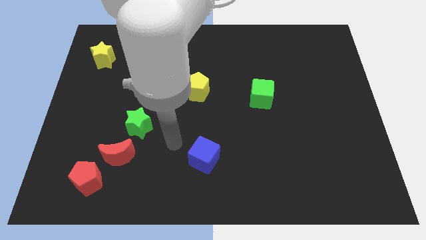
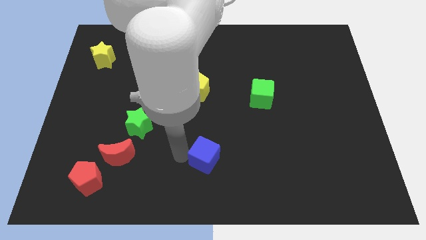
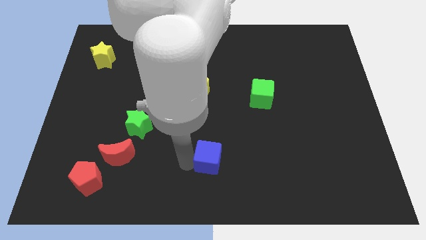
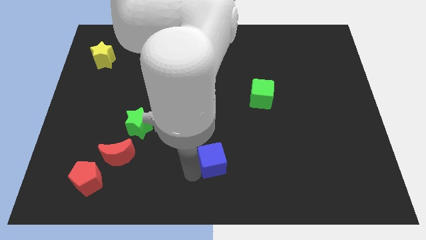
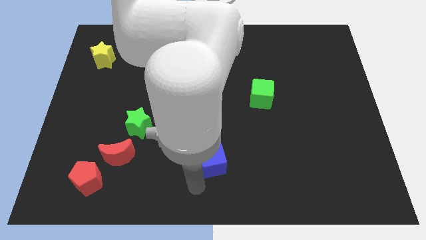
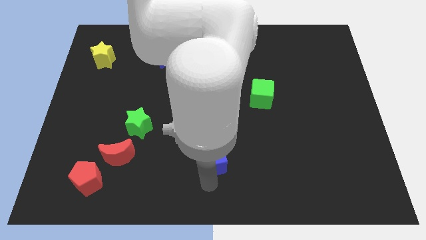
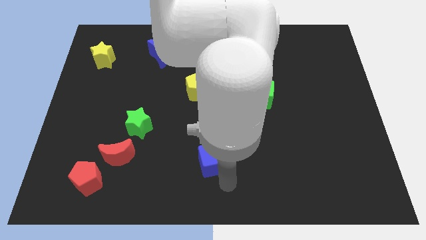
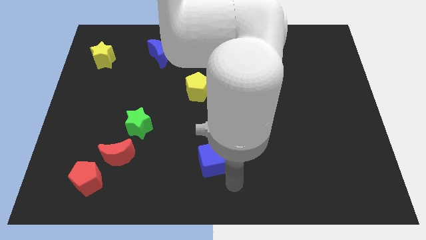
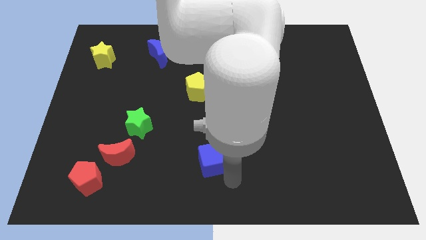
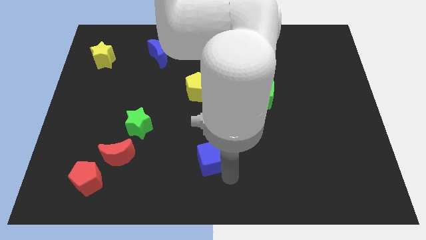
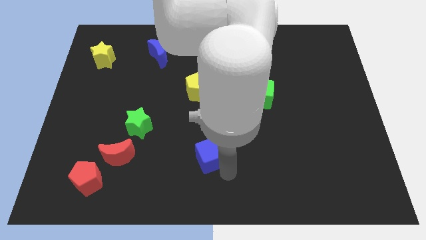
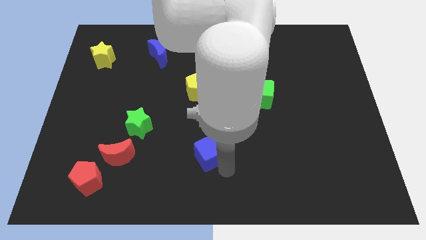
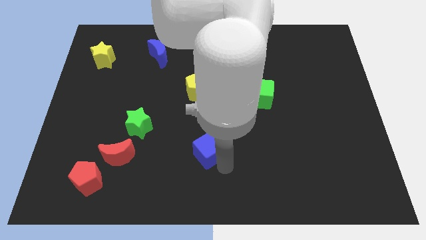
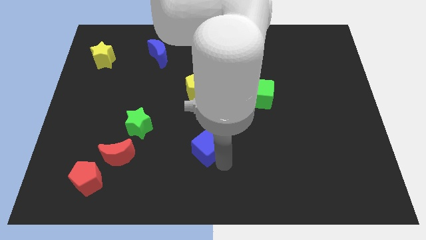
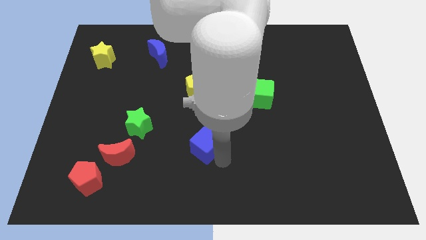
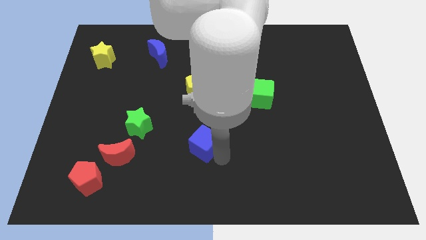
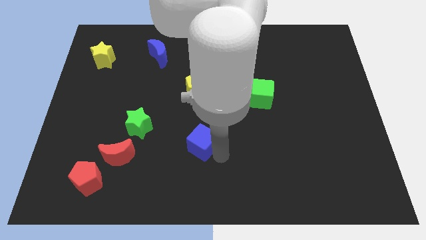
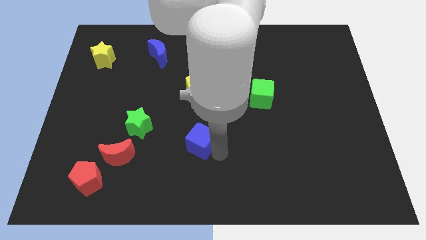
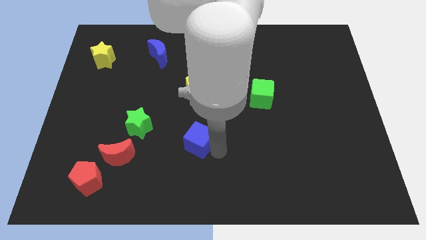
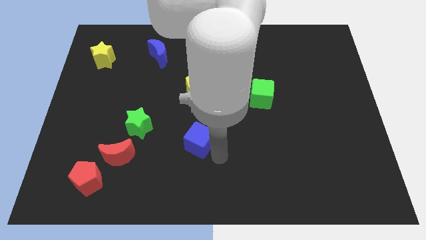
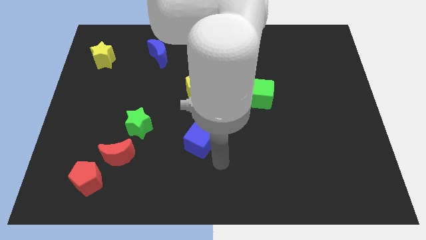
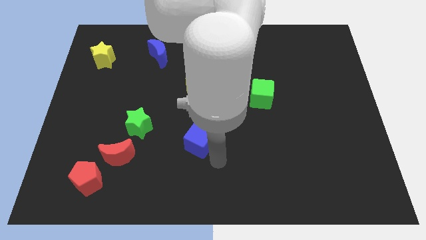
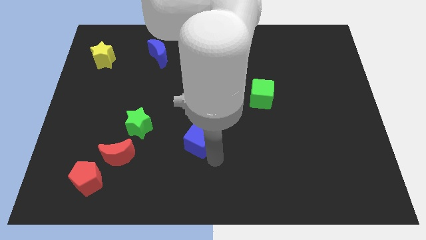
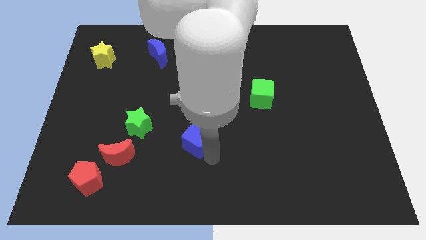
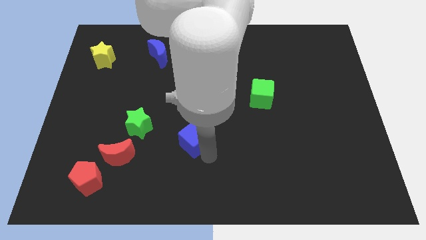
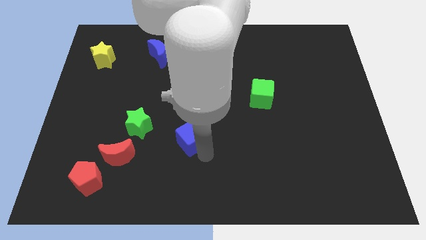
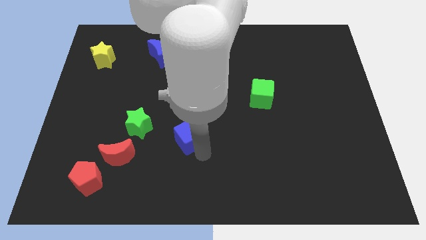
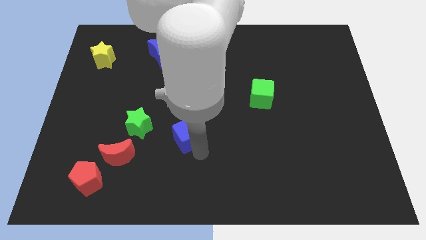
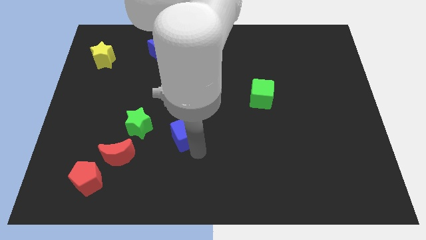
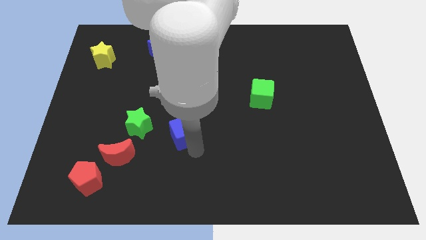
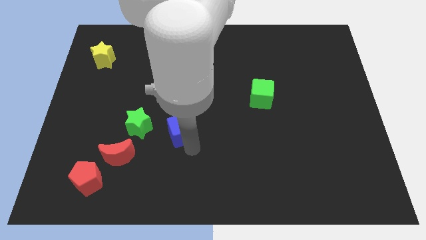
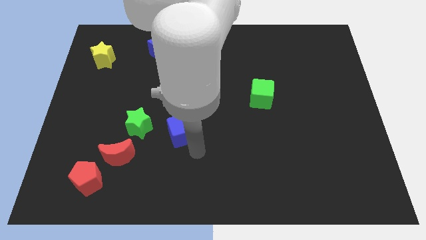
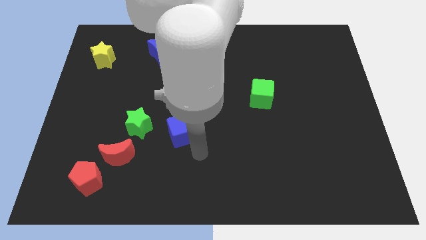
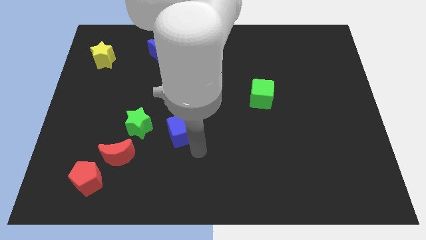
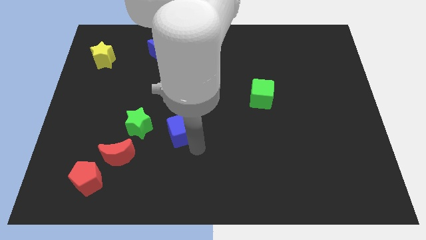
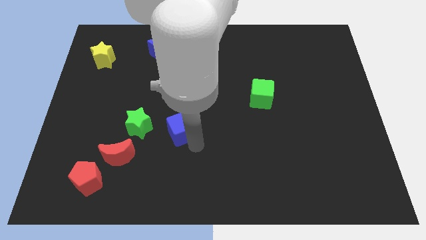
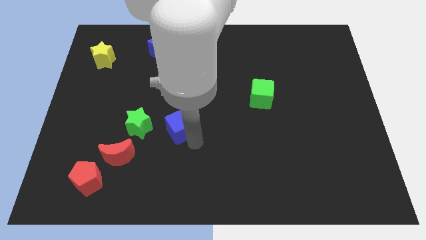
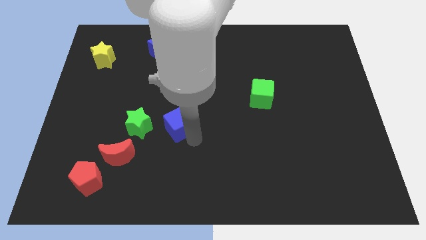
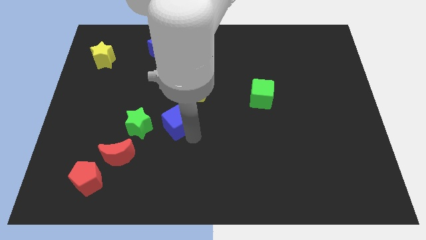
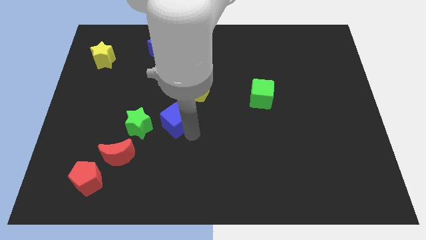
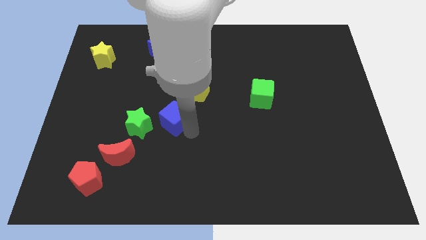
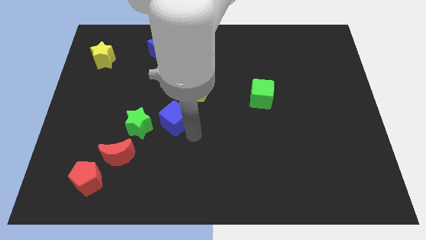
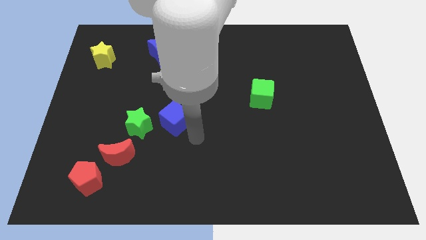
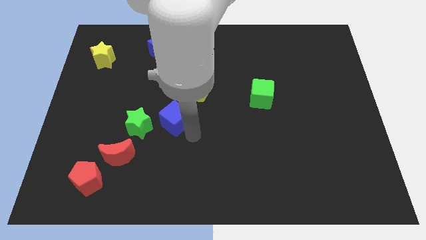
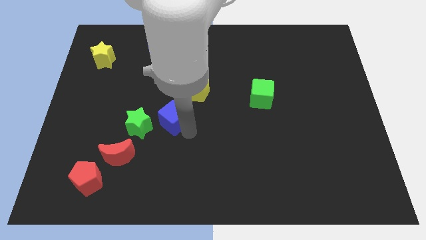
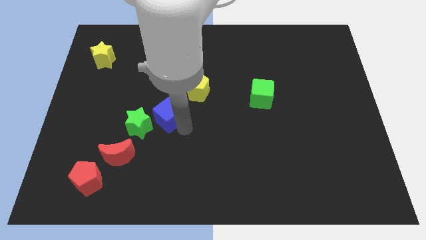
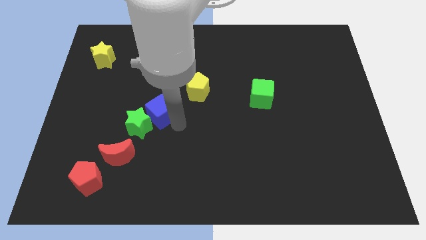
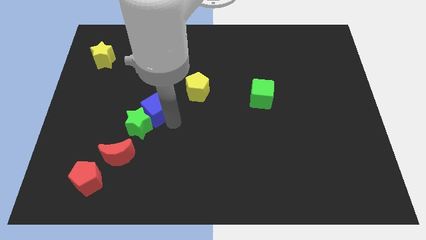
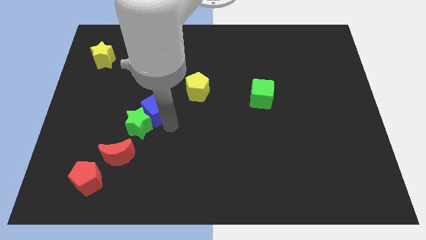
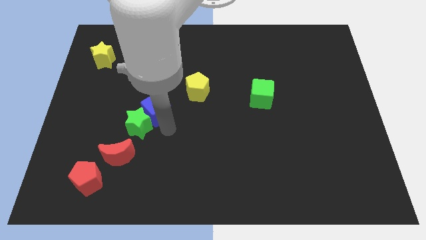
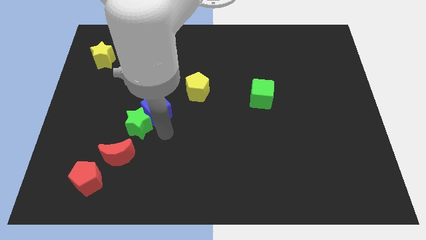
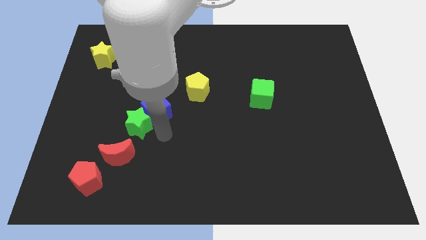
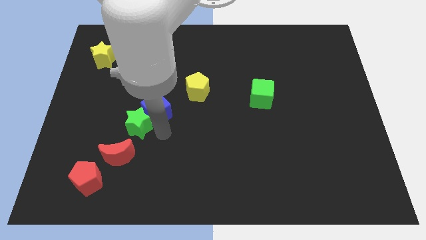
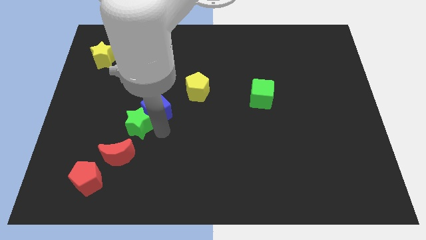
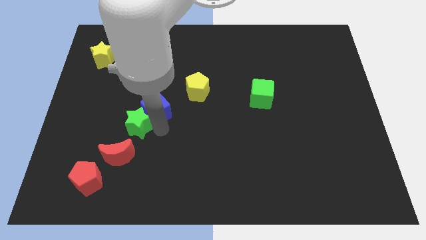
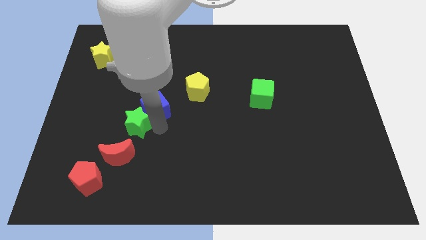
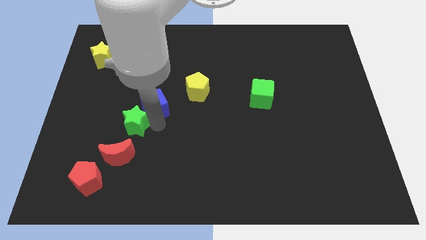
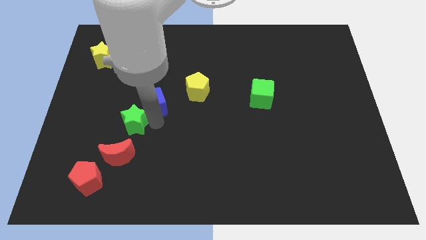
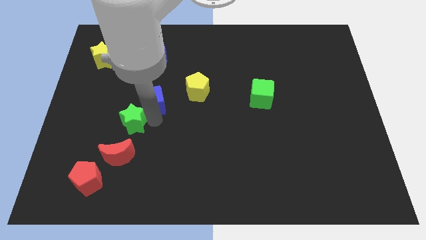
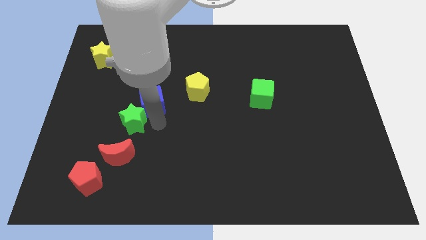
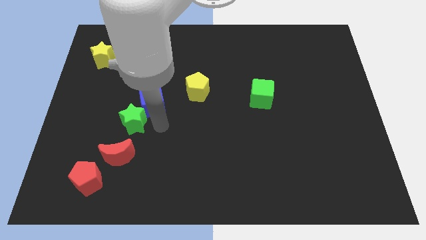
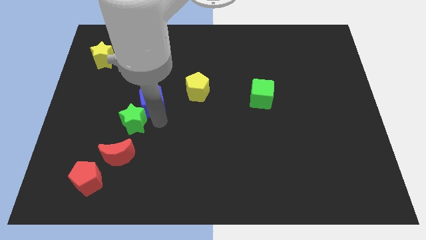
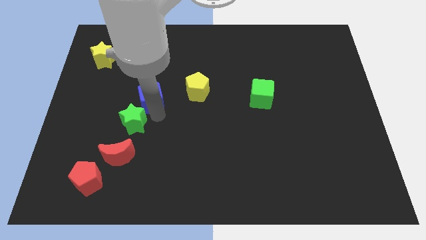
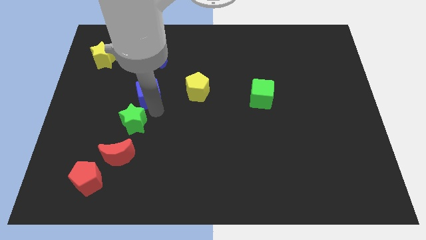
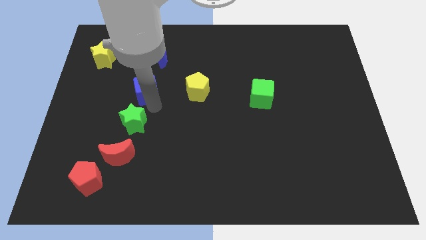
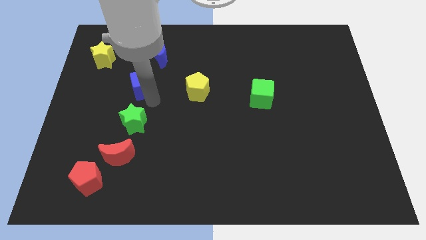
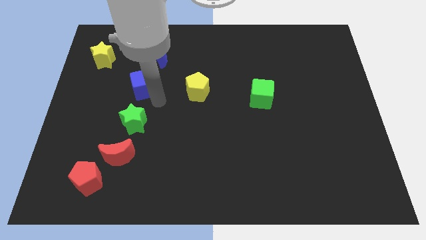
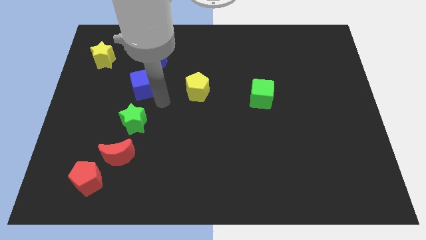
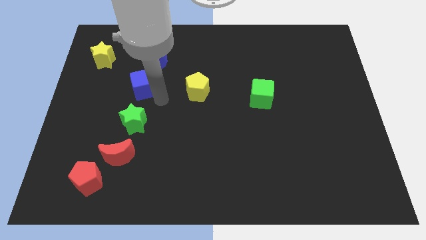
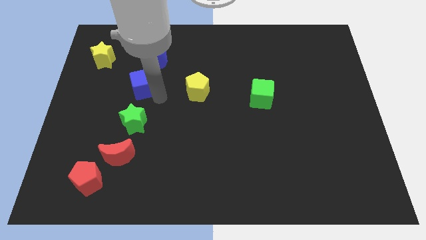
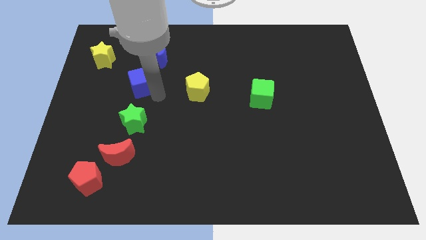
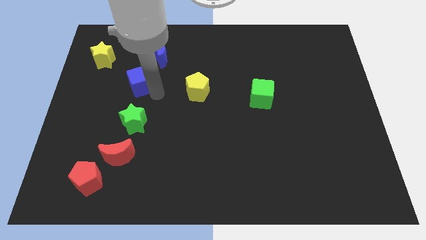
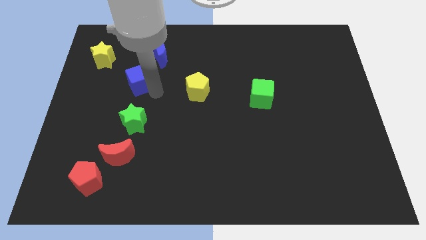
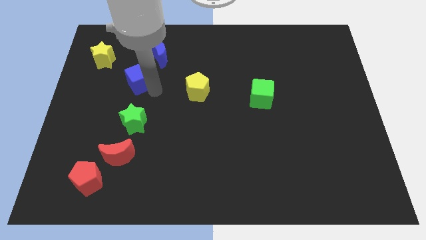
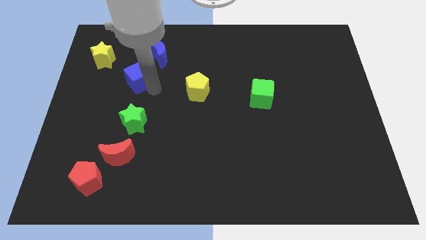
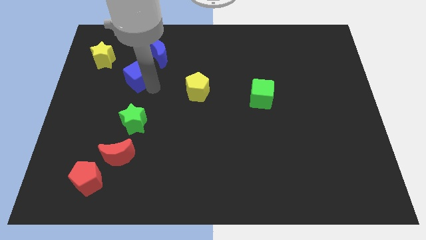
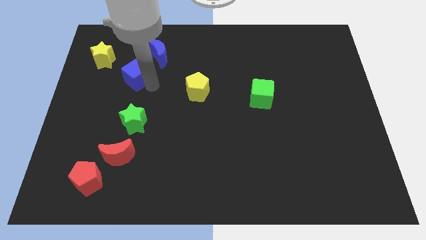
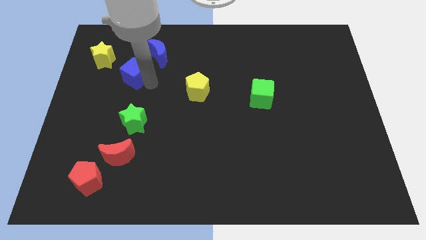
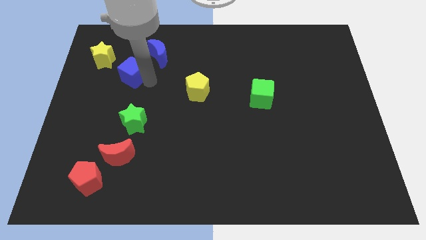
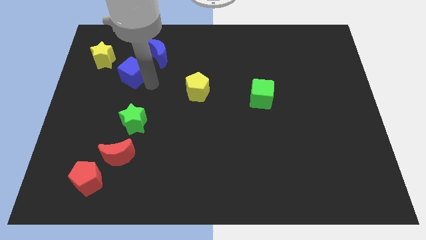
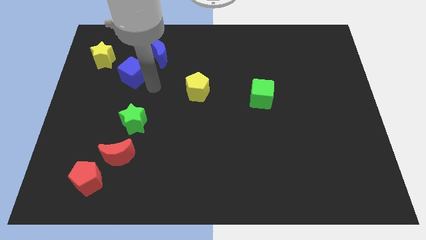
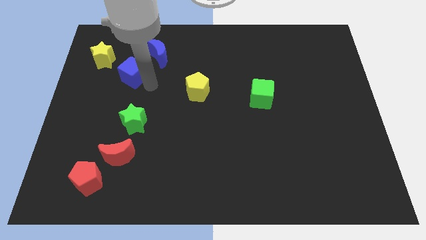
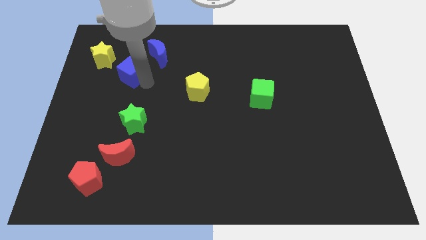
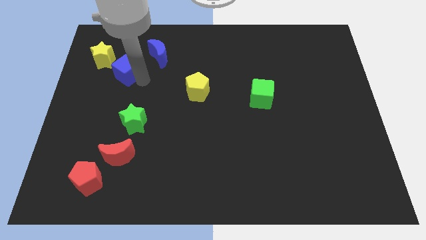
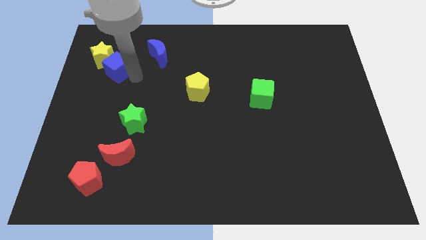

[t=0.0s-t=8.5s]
put the blue cube towards the yellow star
